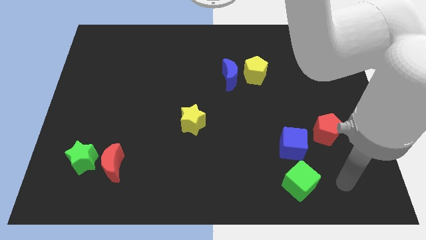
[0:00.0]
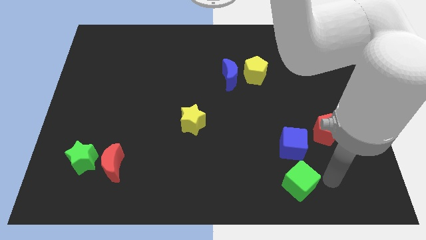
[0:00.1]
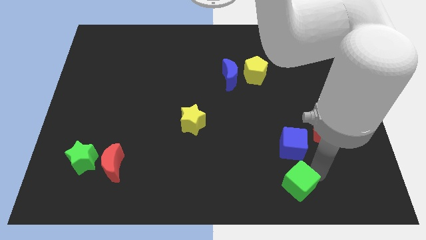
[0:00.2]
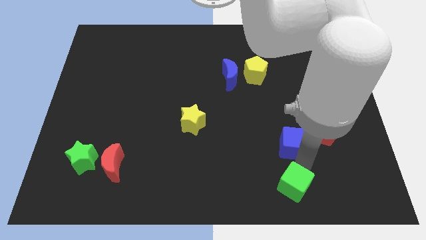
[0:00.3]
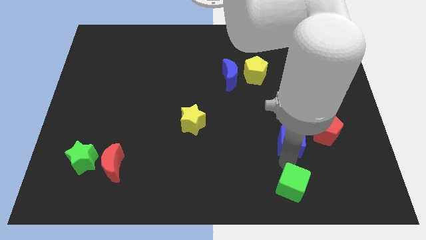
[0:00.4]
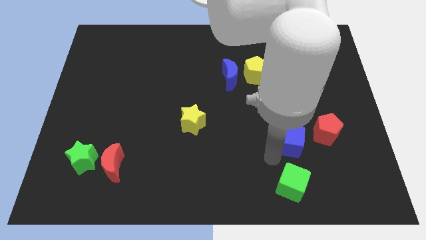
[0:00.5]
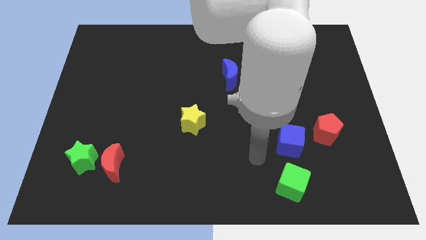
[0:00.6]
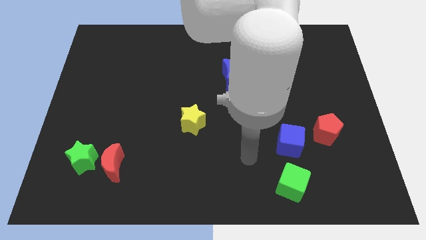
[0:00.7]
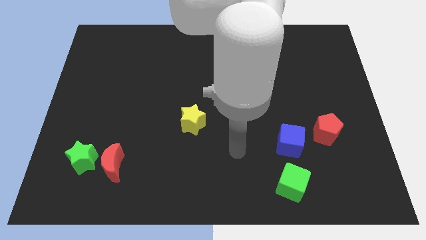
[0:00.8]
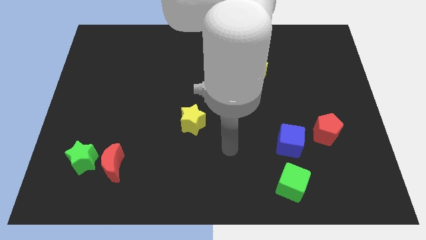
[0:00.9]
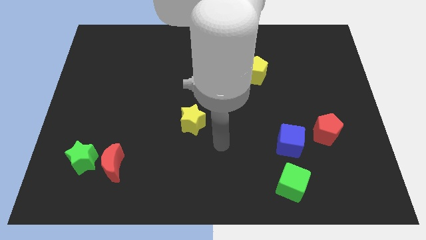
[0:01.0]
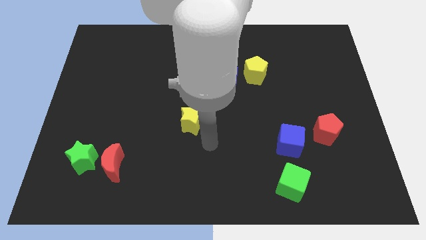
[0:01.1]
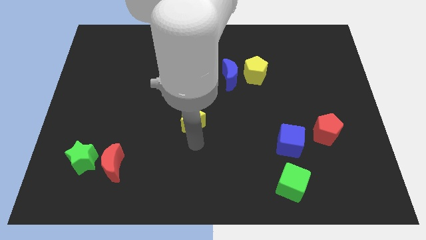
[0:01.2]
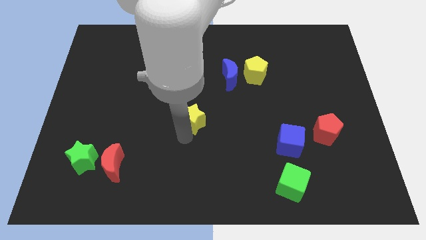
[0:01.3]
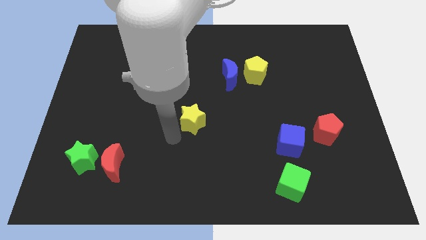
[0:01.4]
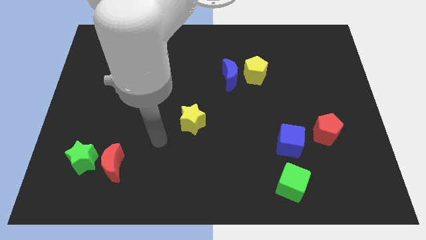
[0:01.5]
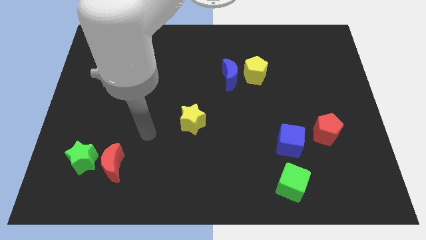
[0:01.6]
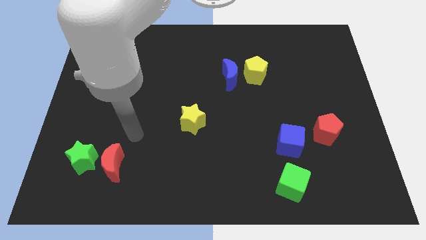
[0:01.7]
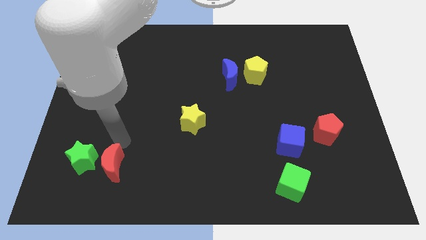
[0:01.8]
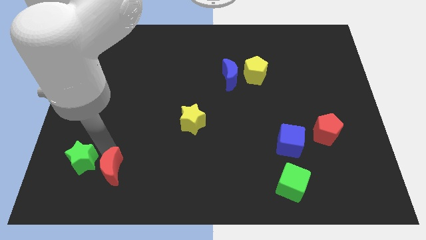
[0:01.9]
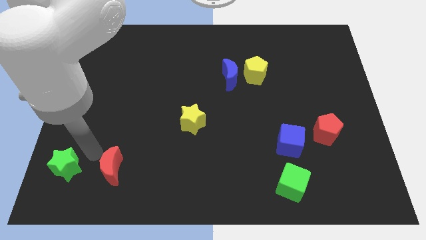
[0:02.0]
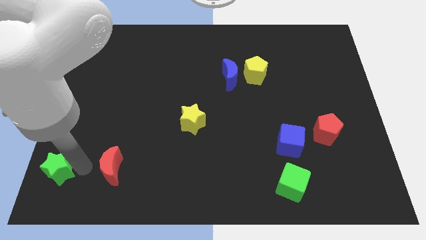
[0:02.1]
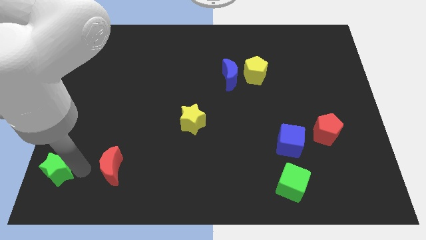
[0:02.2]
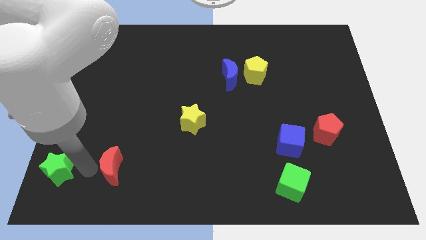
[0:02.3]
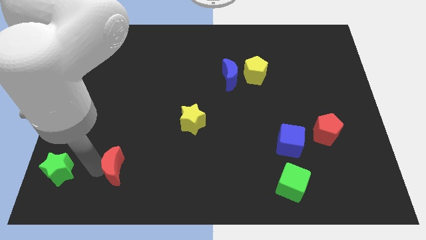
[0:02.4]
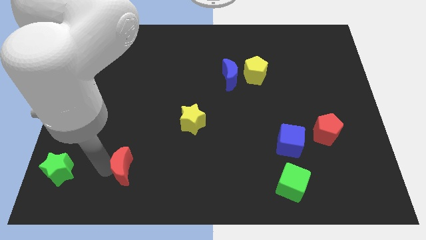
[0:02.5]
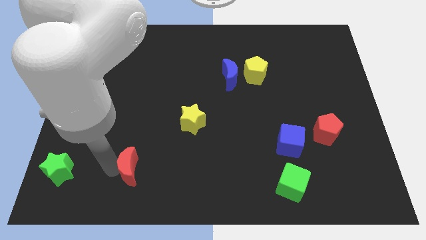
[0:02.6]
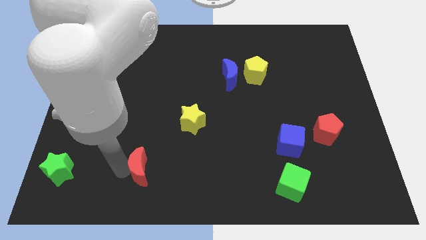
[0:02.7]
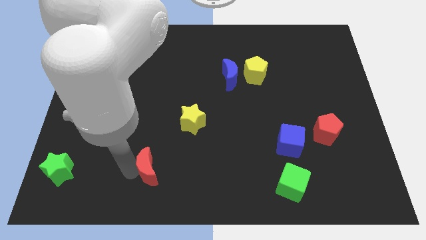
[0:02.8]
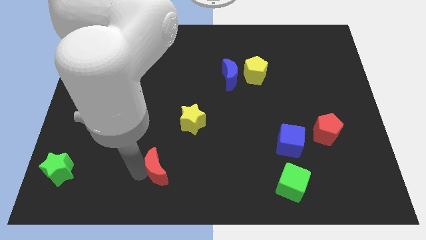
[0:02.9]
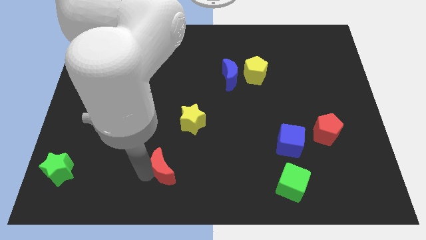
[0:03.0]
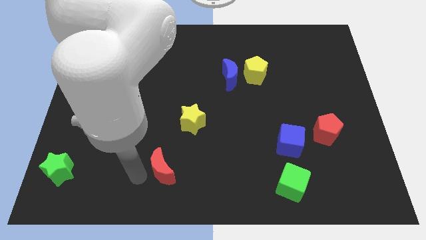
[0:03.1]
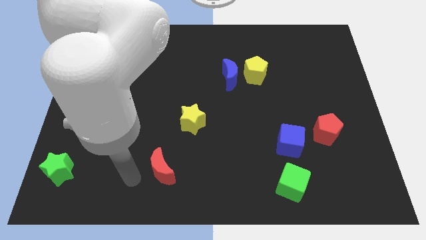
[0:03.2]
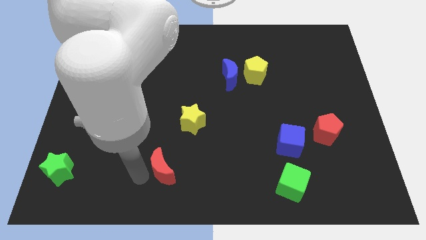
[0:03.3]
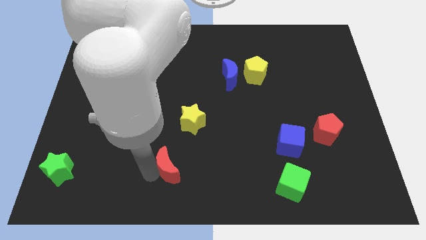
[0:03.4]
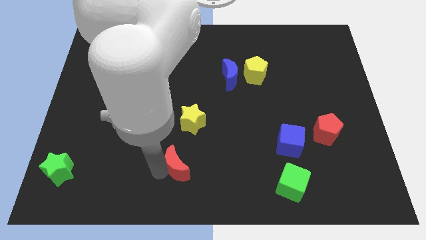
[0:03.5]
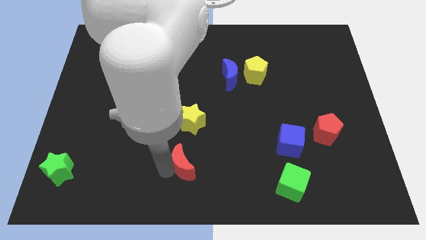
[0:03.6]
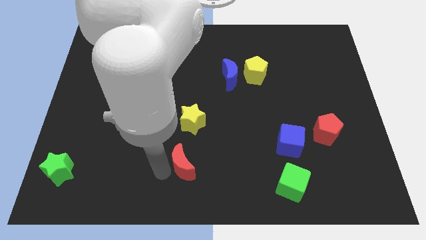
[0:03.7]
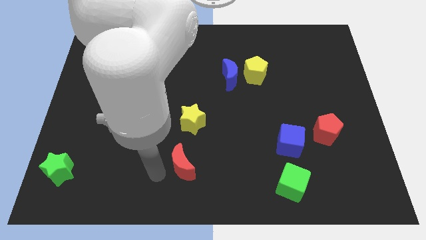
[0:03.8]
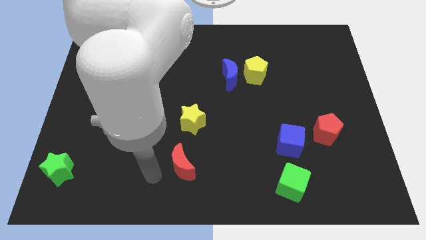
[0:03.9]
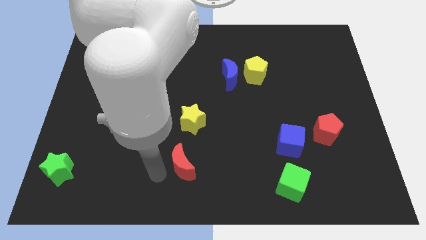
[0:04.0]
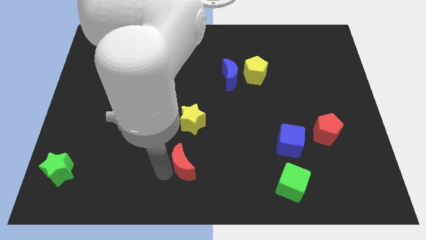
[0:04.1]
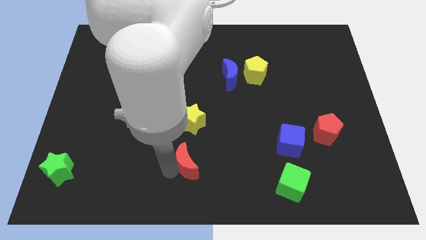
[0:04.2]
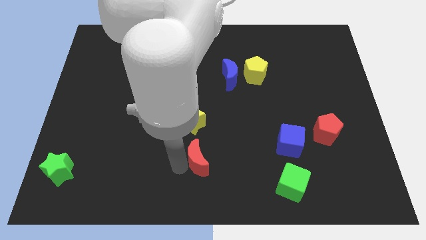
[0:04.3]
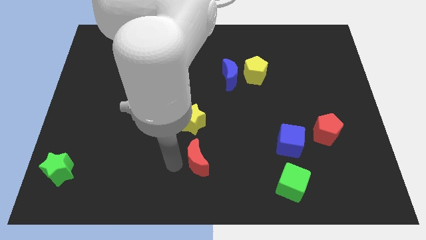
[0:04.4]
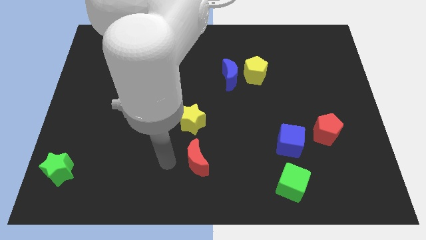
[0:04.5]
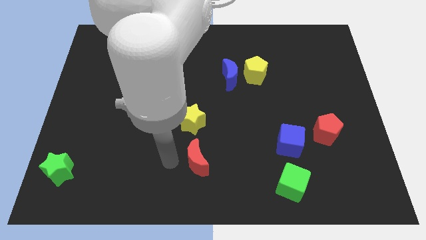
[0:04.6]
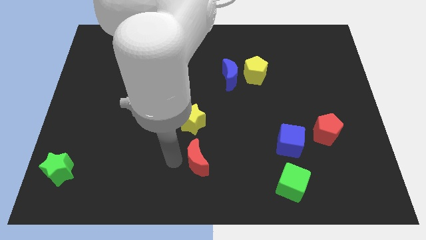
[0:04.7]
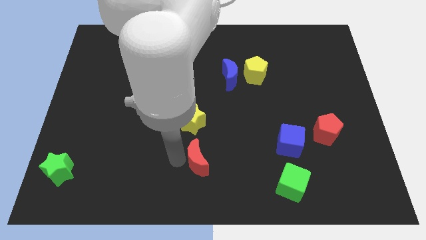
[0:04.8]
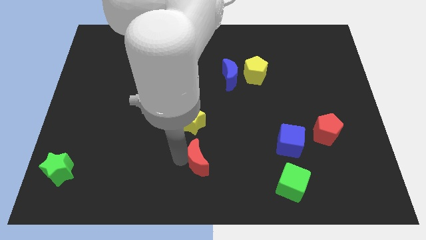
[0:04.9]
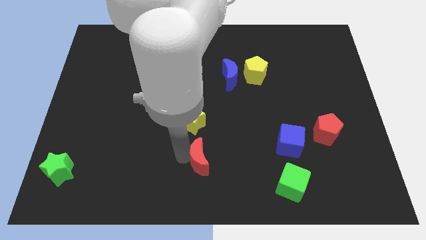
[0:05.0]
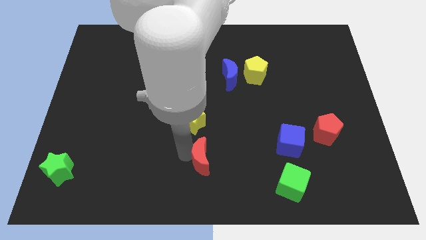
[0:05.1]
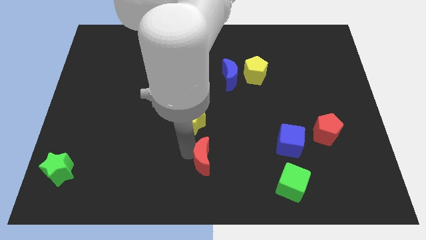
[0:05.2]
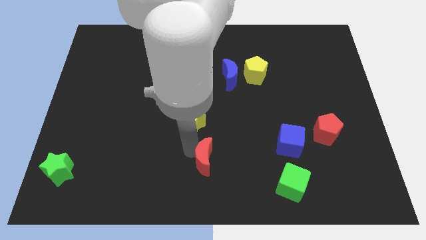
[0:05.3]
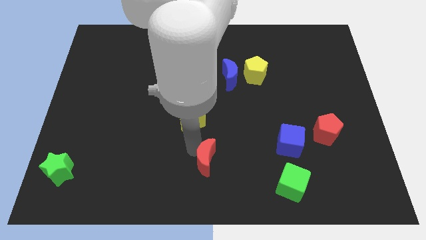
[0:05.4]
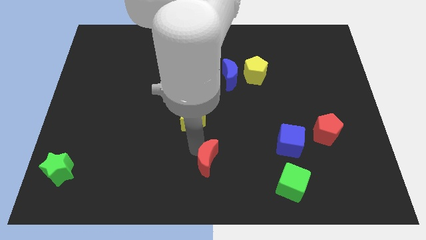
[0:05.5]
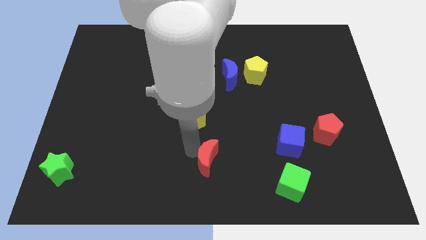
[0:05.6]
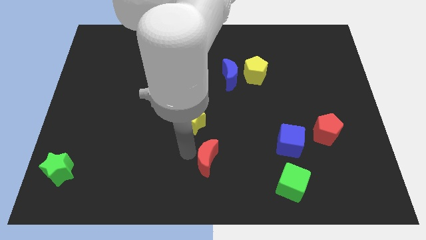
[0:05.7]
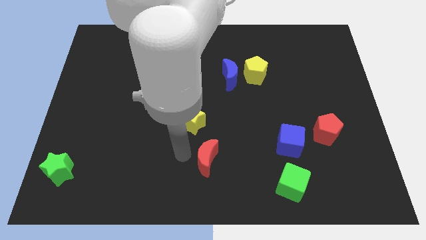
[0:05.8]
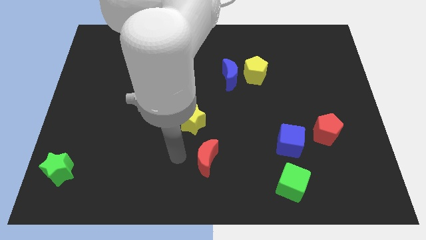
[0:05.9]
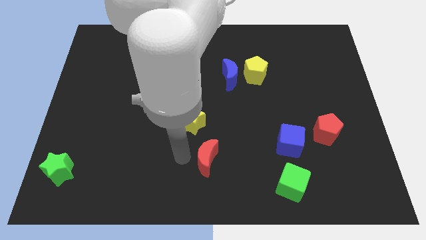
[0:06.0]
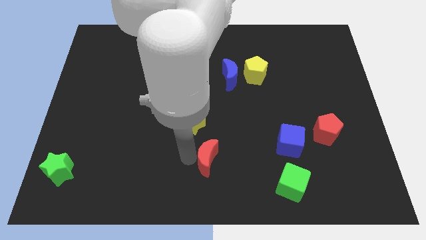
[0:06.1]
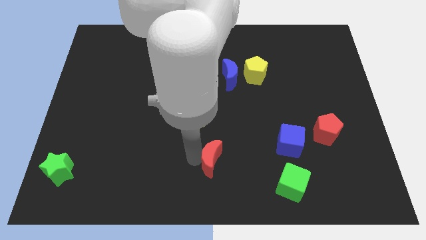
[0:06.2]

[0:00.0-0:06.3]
push the red moon right

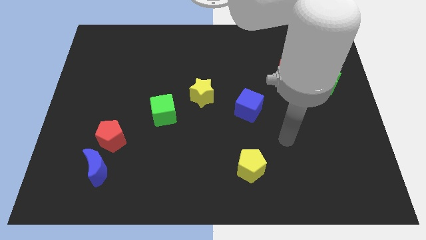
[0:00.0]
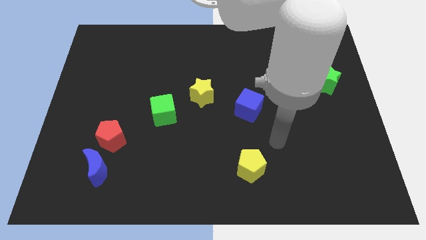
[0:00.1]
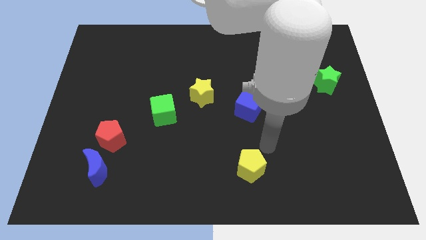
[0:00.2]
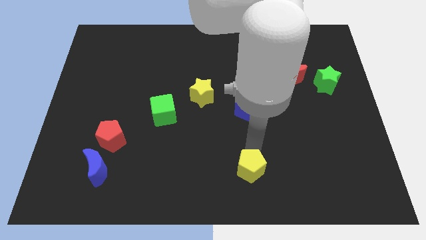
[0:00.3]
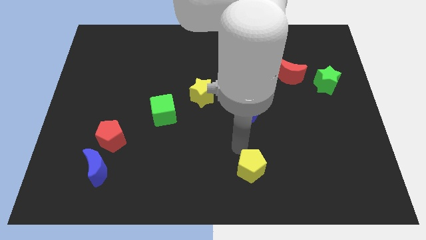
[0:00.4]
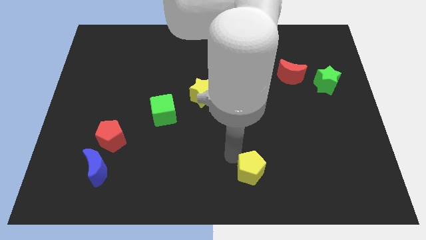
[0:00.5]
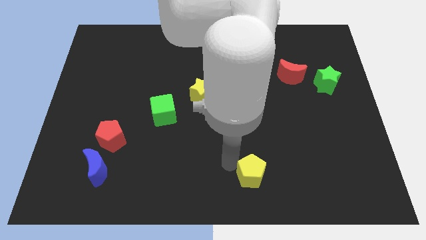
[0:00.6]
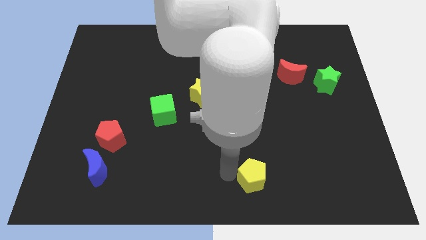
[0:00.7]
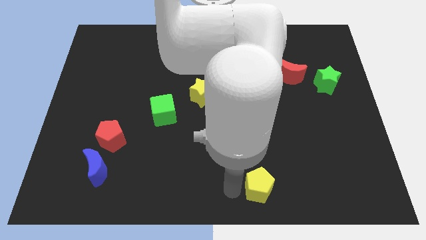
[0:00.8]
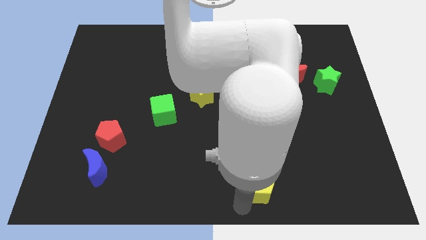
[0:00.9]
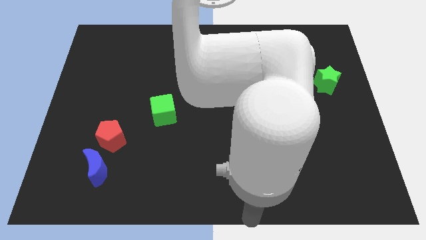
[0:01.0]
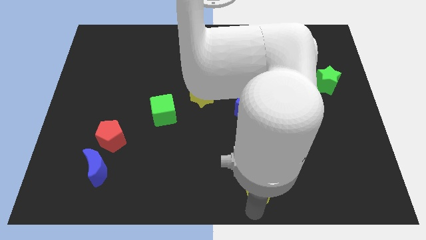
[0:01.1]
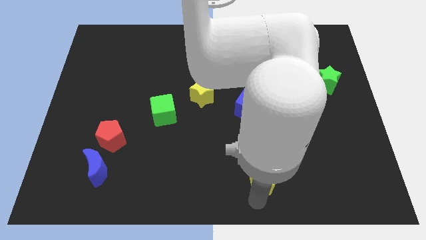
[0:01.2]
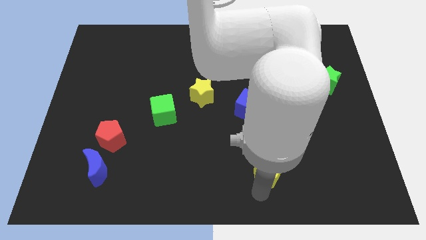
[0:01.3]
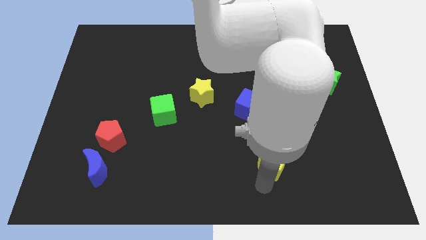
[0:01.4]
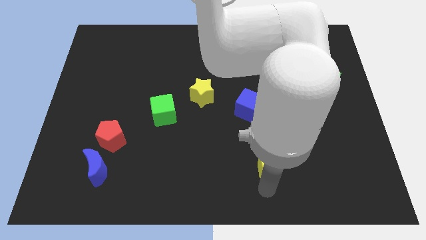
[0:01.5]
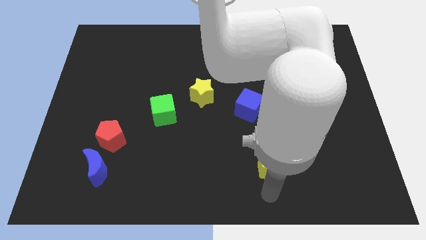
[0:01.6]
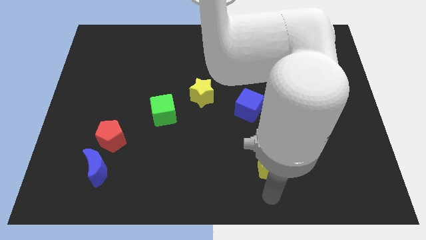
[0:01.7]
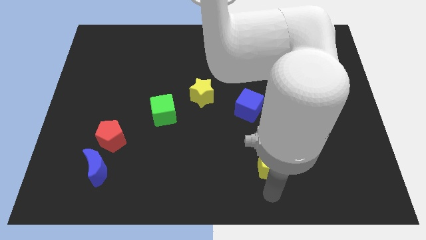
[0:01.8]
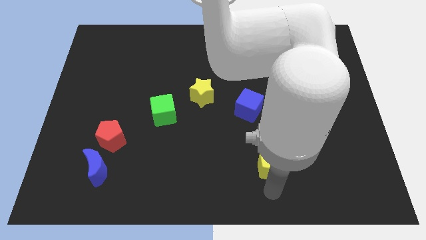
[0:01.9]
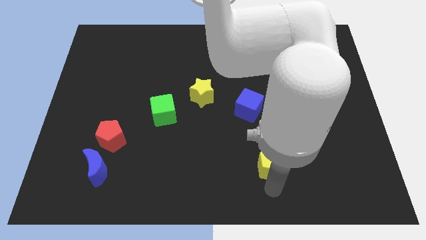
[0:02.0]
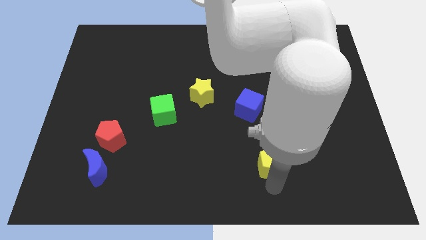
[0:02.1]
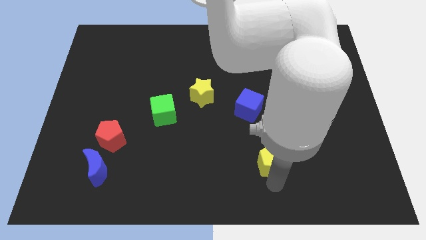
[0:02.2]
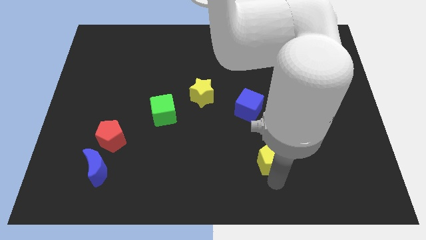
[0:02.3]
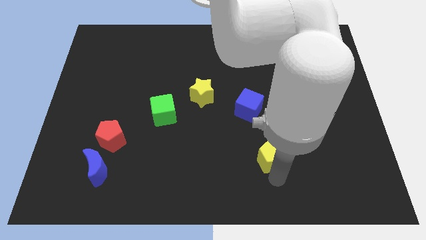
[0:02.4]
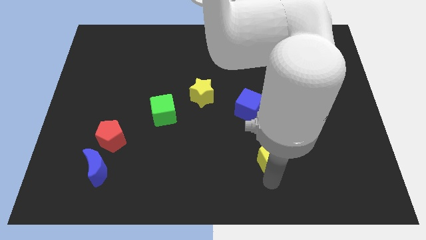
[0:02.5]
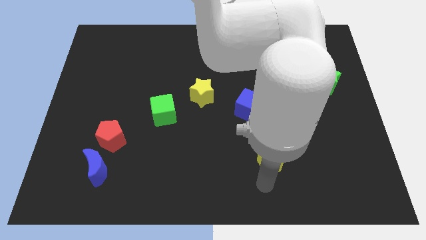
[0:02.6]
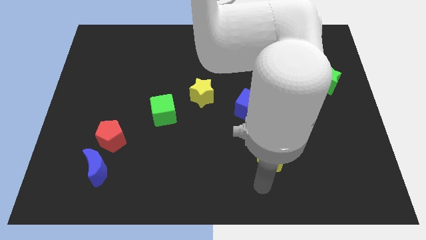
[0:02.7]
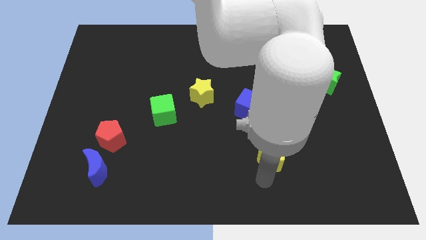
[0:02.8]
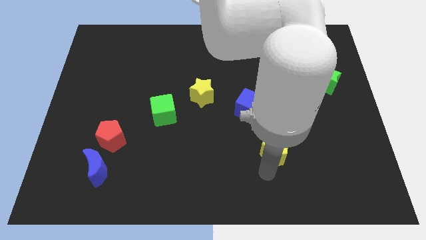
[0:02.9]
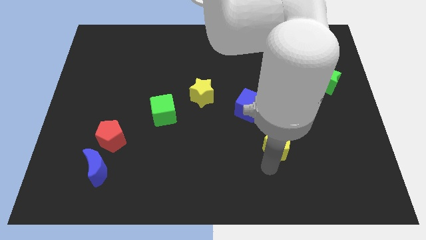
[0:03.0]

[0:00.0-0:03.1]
slide the yellow pentagon diagonally upwards and right a little bit
